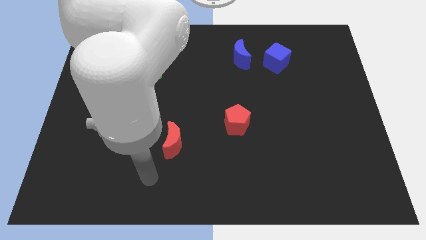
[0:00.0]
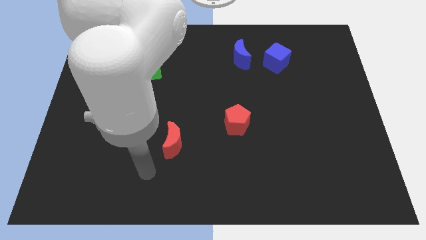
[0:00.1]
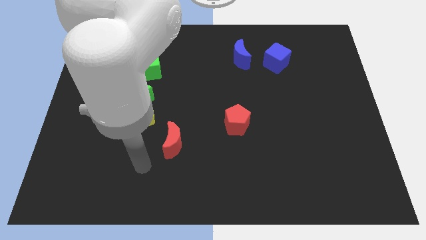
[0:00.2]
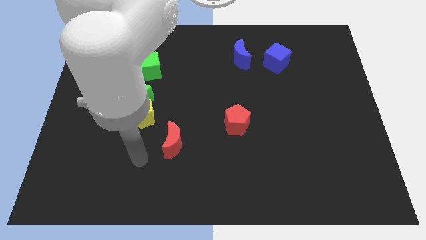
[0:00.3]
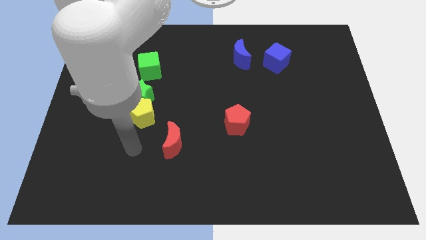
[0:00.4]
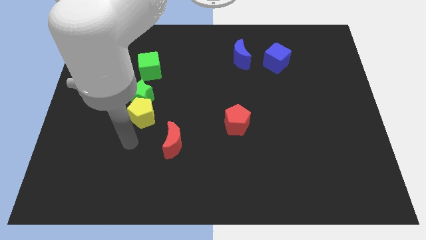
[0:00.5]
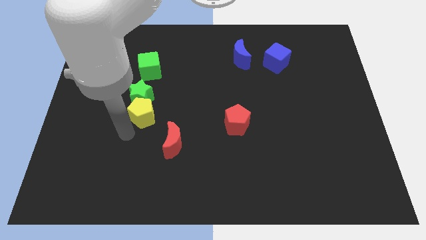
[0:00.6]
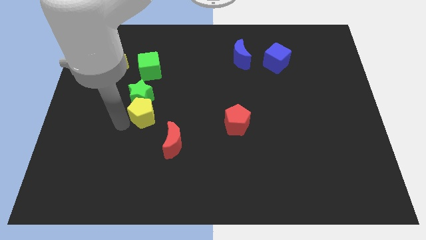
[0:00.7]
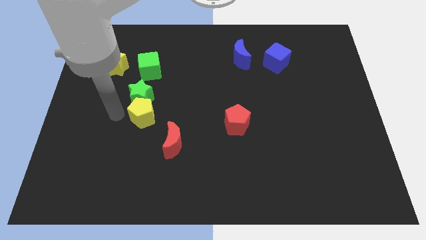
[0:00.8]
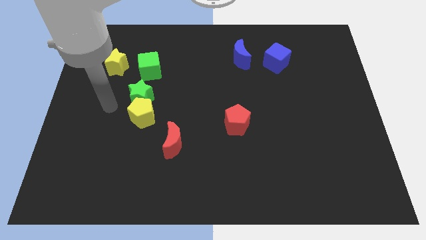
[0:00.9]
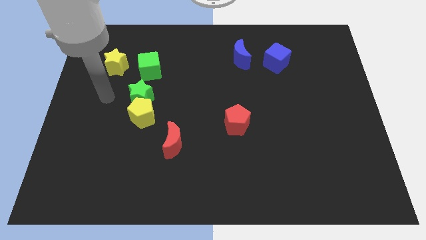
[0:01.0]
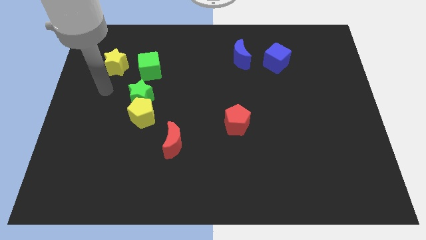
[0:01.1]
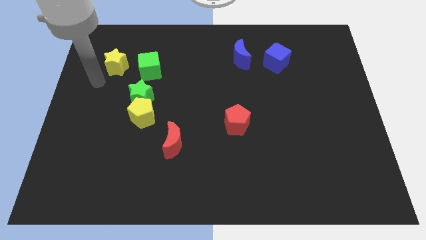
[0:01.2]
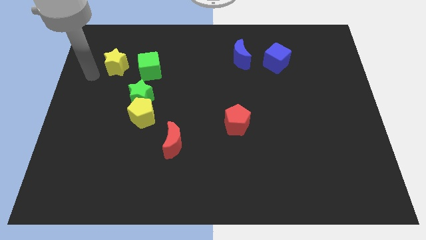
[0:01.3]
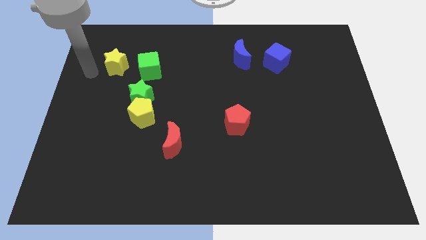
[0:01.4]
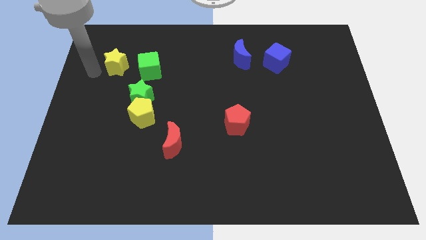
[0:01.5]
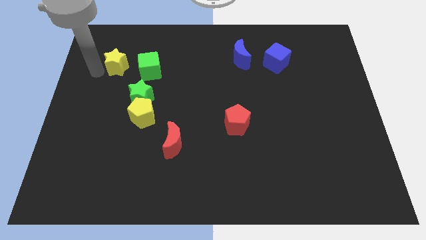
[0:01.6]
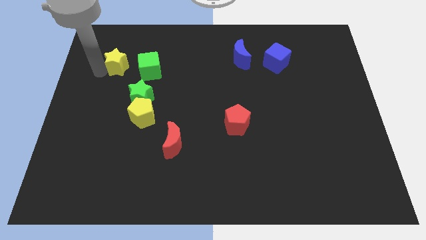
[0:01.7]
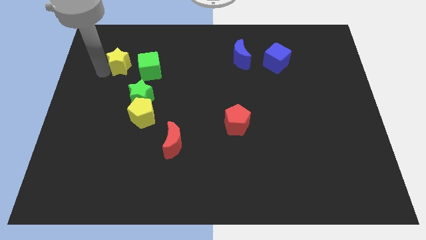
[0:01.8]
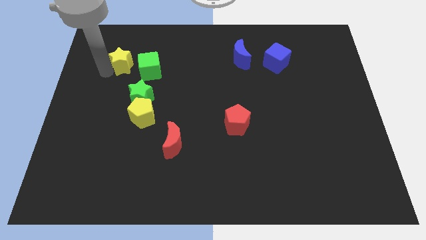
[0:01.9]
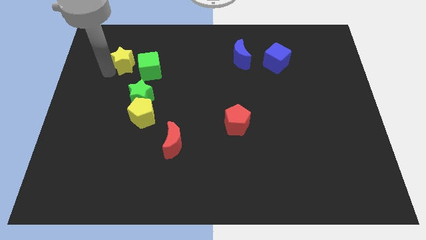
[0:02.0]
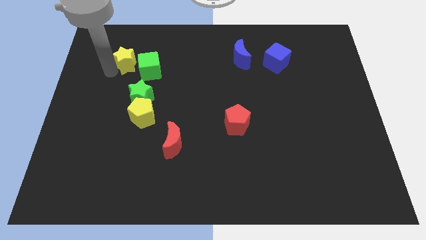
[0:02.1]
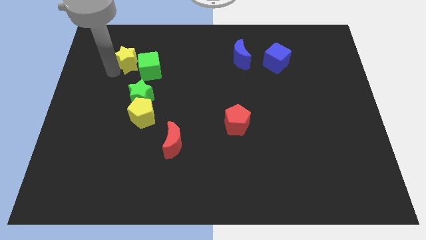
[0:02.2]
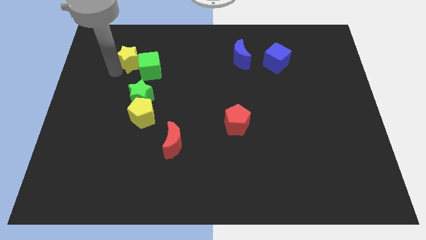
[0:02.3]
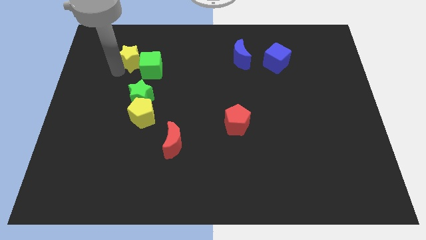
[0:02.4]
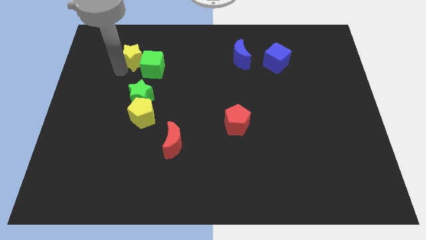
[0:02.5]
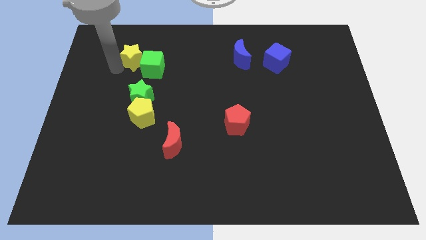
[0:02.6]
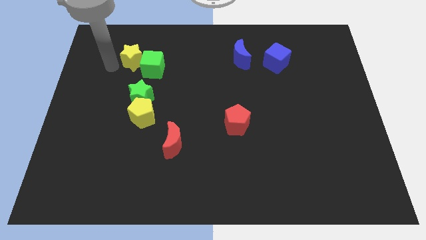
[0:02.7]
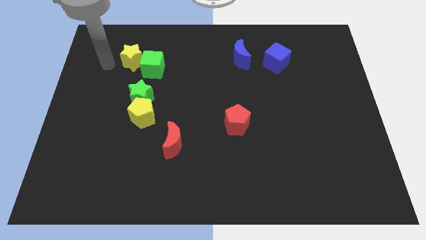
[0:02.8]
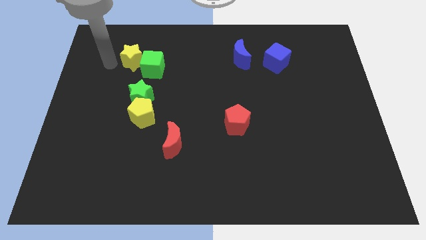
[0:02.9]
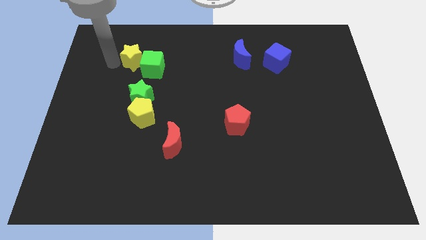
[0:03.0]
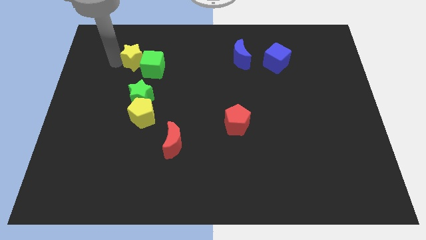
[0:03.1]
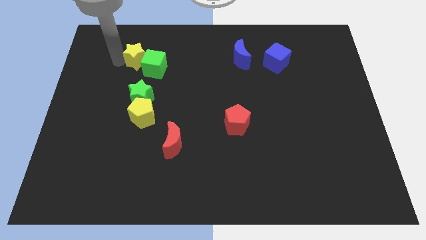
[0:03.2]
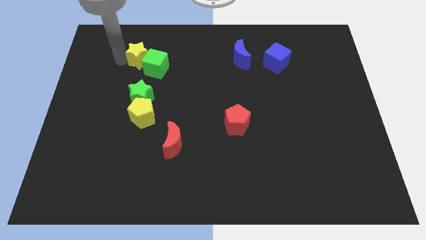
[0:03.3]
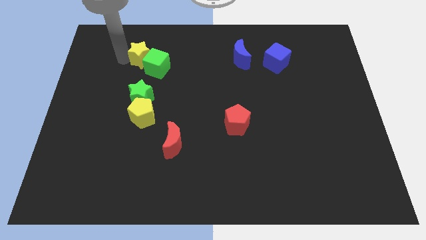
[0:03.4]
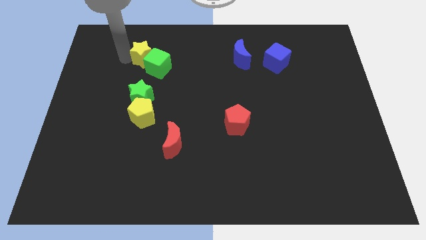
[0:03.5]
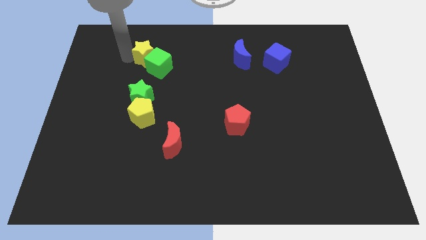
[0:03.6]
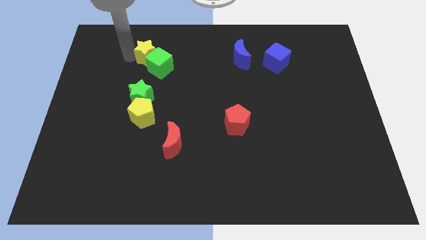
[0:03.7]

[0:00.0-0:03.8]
push the yellow star somewhat to the right

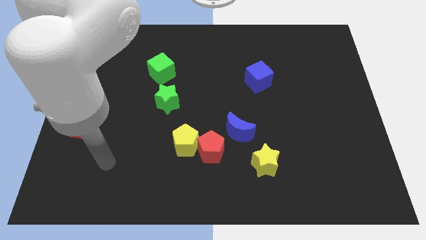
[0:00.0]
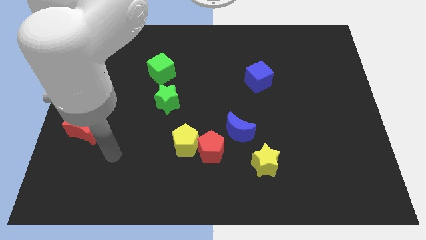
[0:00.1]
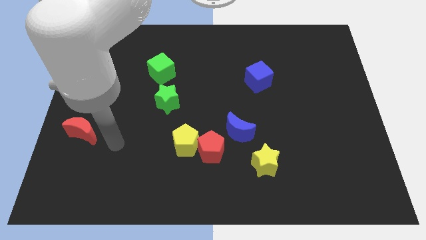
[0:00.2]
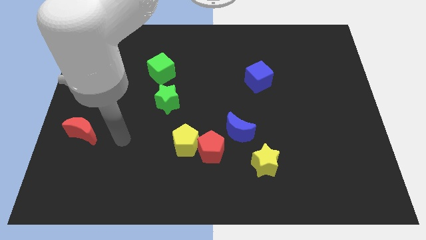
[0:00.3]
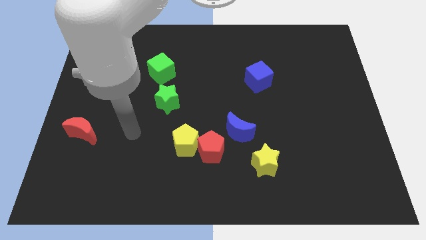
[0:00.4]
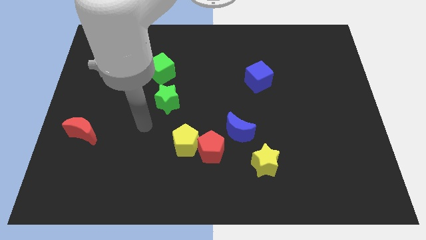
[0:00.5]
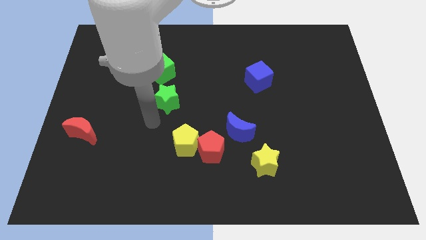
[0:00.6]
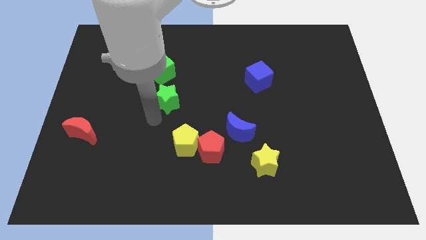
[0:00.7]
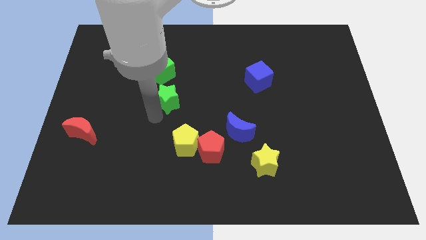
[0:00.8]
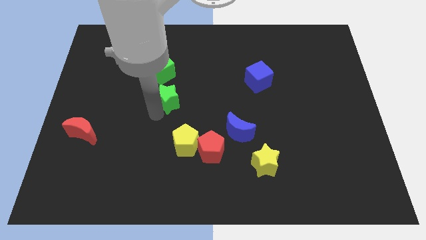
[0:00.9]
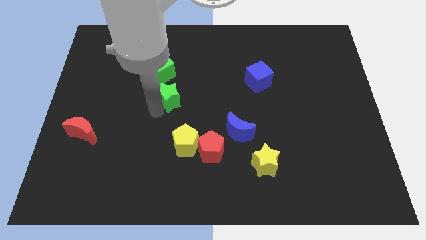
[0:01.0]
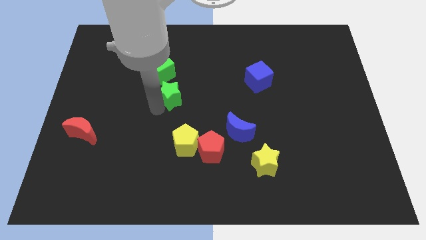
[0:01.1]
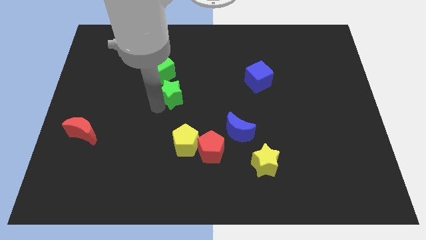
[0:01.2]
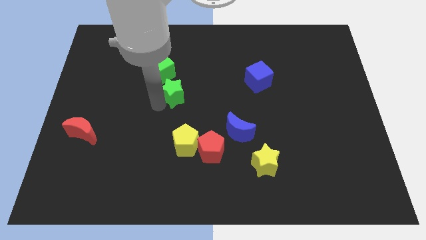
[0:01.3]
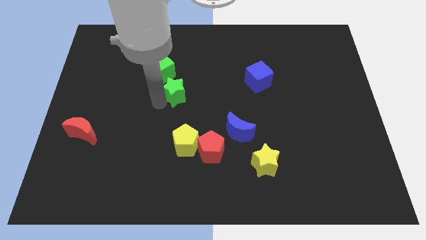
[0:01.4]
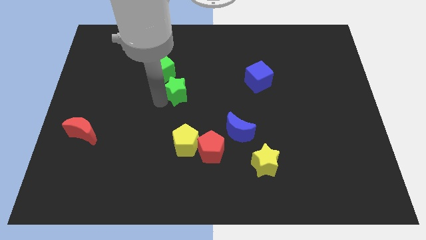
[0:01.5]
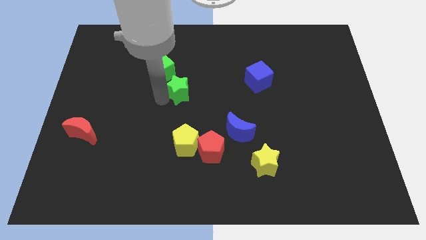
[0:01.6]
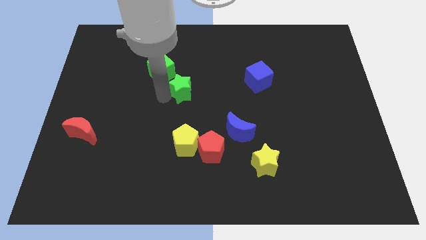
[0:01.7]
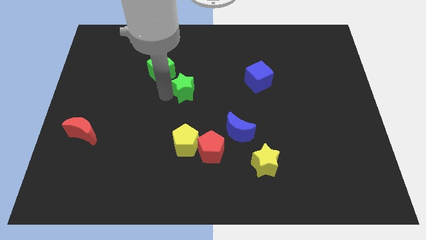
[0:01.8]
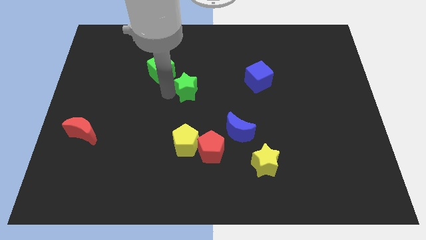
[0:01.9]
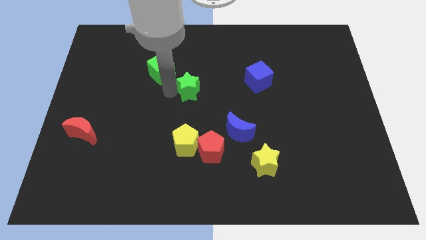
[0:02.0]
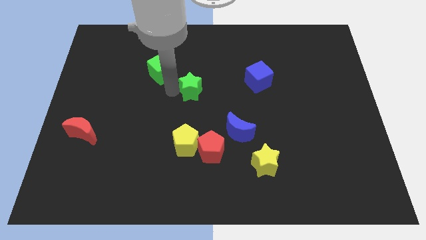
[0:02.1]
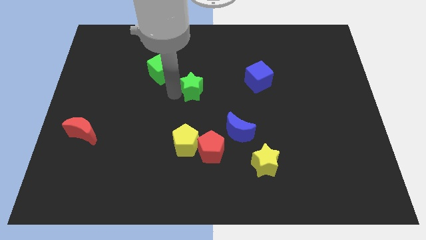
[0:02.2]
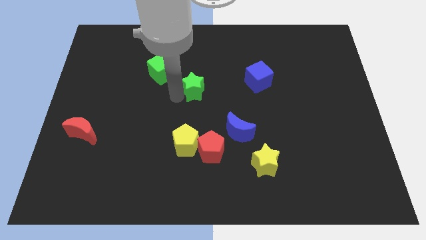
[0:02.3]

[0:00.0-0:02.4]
move the green star somewhat up and right diagonally

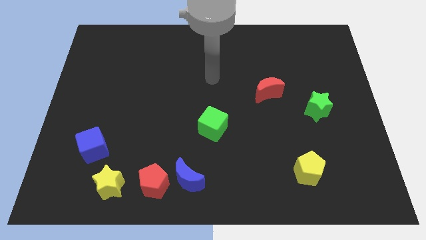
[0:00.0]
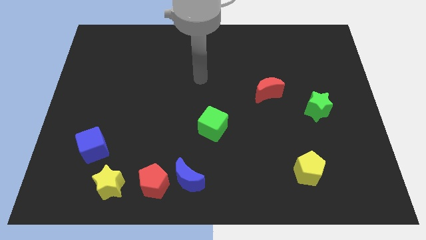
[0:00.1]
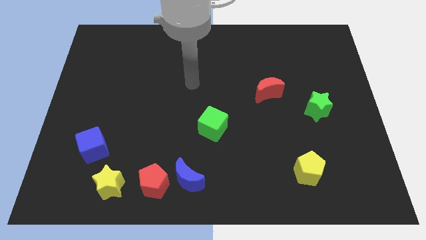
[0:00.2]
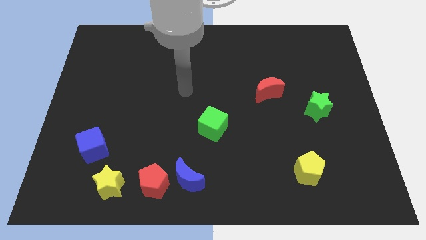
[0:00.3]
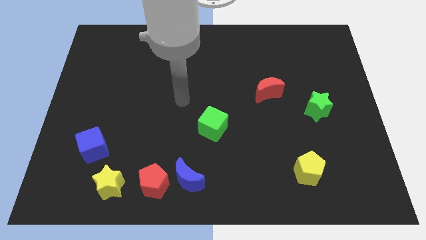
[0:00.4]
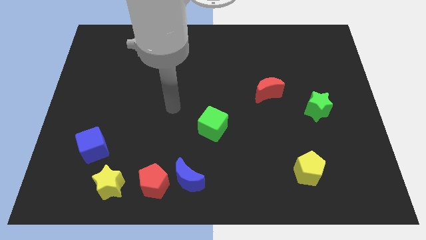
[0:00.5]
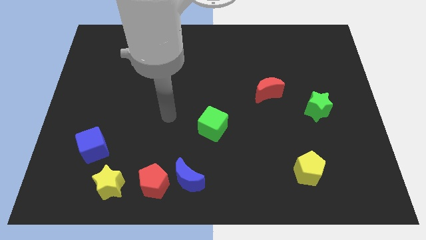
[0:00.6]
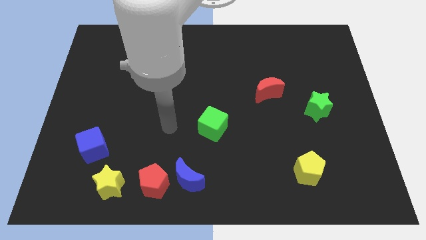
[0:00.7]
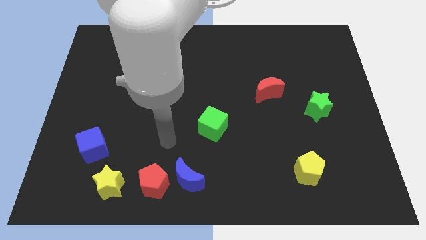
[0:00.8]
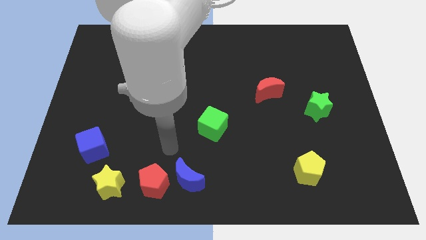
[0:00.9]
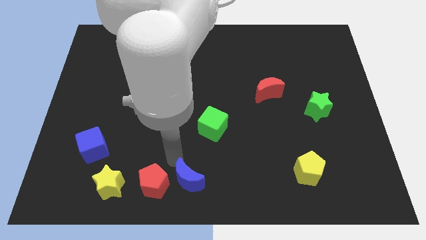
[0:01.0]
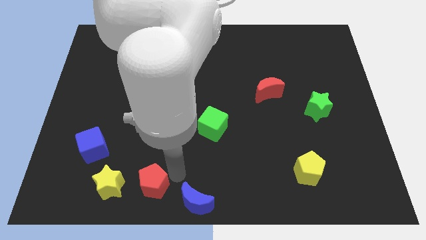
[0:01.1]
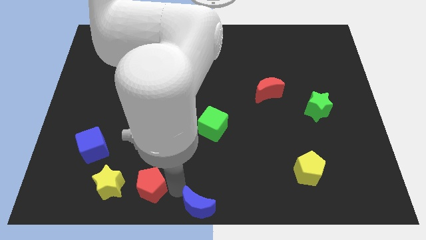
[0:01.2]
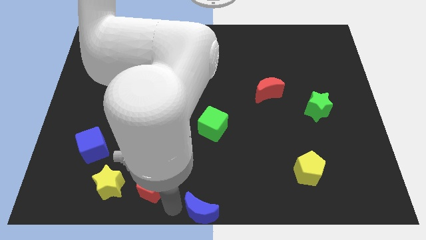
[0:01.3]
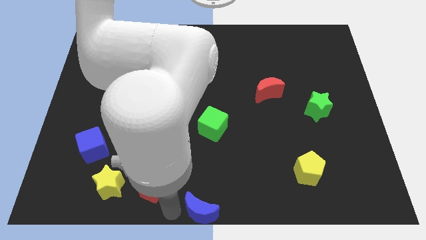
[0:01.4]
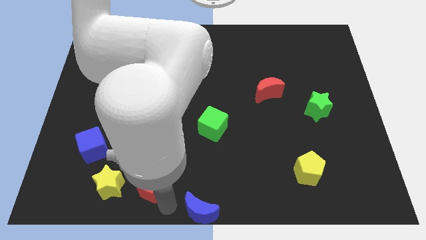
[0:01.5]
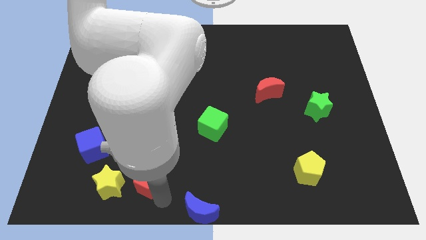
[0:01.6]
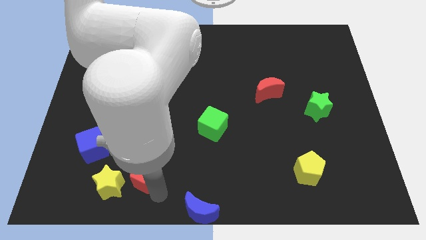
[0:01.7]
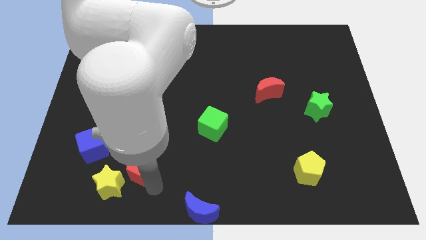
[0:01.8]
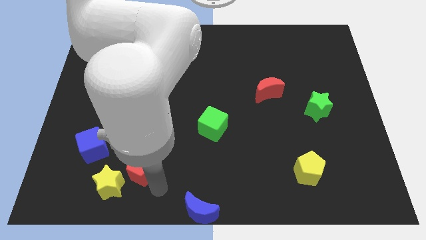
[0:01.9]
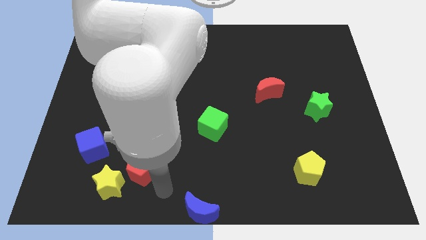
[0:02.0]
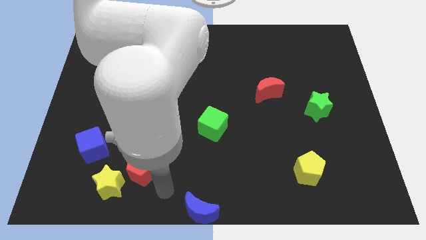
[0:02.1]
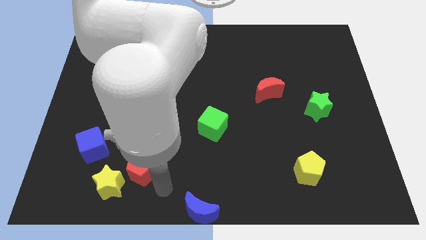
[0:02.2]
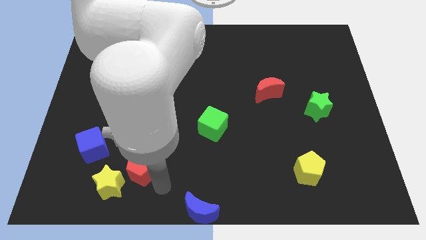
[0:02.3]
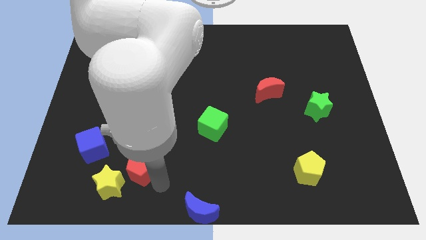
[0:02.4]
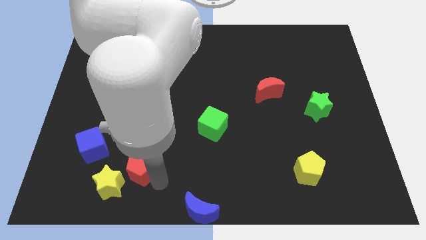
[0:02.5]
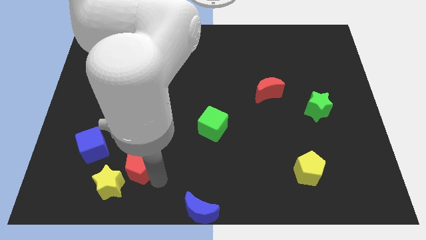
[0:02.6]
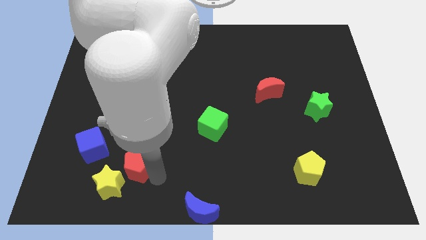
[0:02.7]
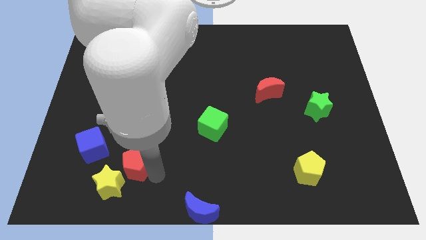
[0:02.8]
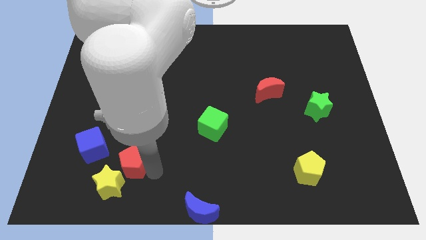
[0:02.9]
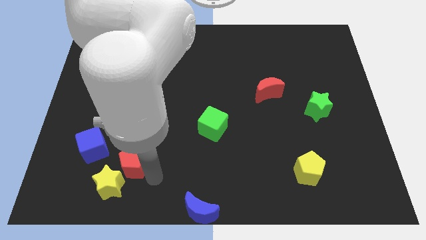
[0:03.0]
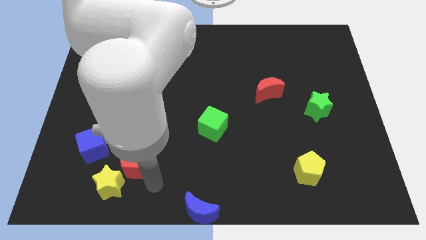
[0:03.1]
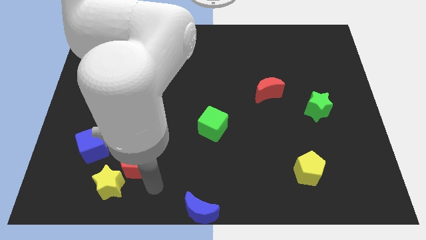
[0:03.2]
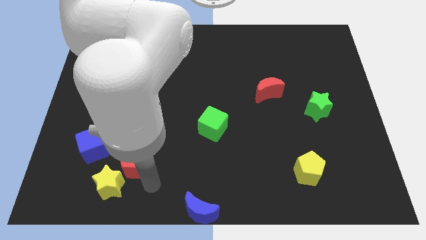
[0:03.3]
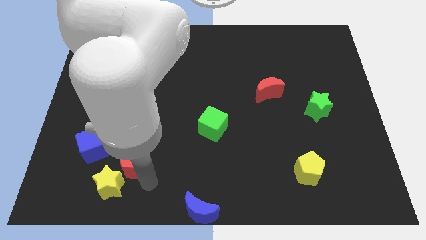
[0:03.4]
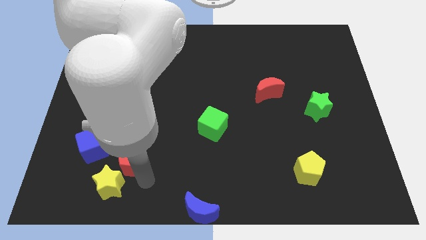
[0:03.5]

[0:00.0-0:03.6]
slide the red pentagon somewhat up and then to the left
